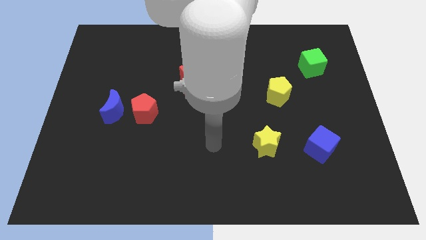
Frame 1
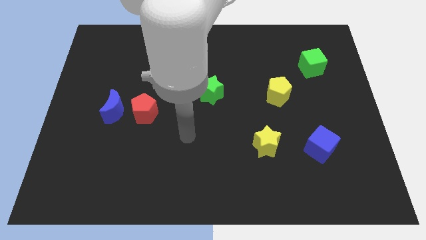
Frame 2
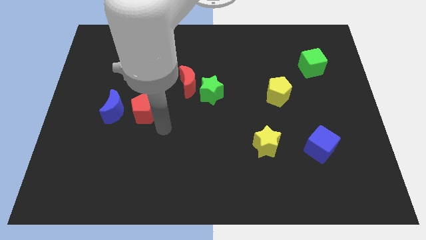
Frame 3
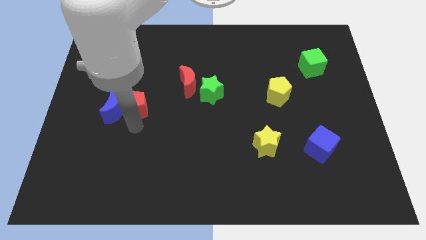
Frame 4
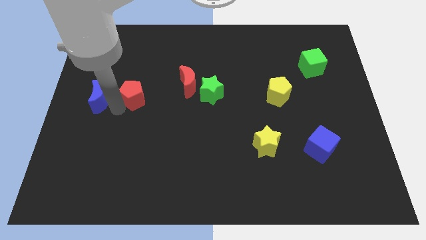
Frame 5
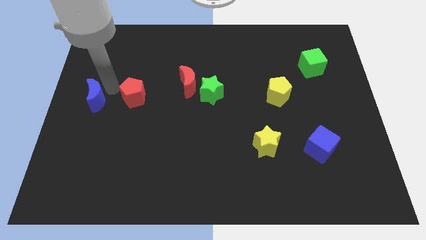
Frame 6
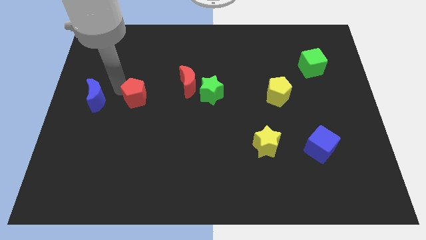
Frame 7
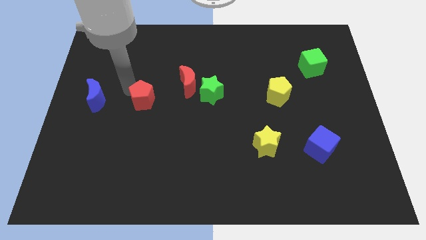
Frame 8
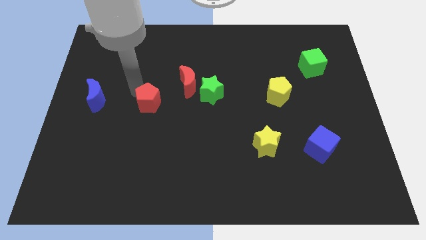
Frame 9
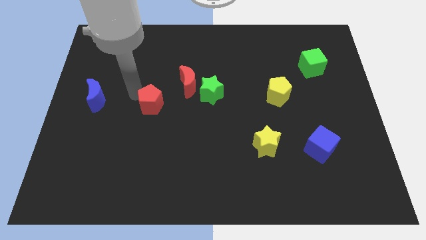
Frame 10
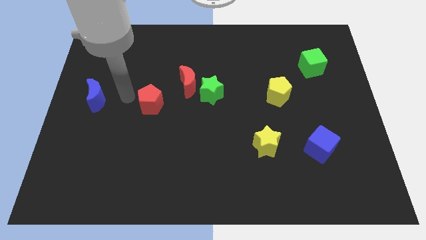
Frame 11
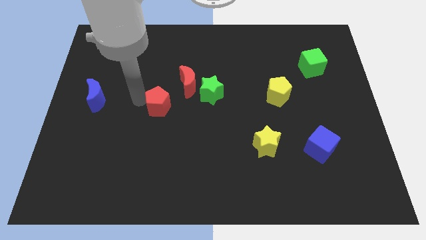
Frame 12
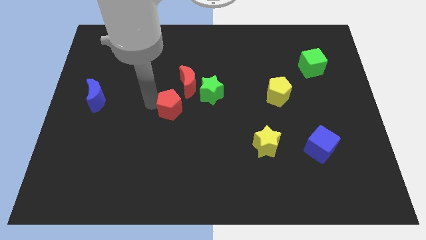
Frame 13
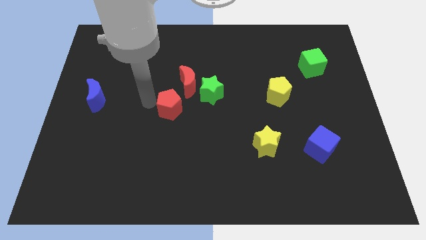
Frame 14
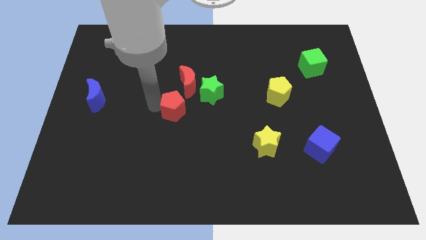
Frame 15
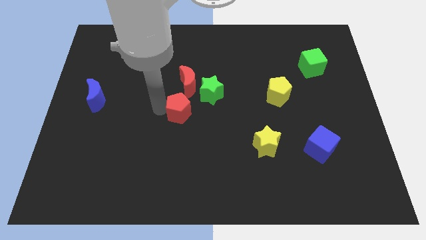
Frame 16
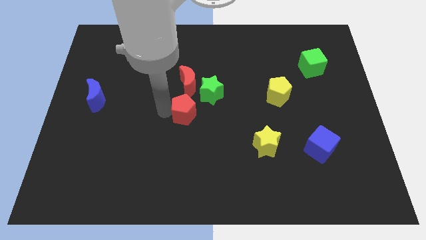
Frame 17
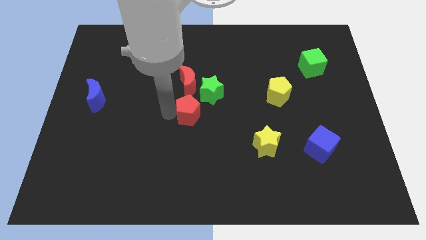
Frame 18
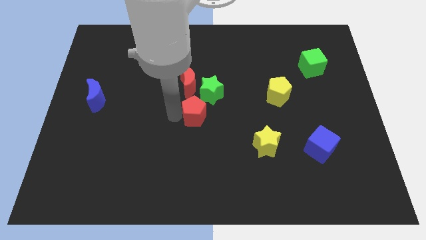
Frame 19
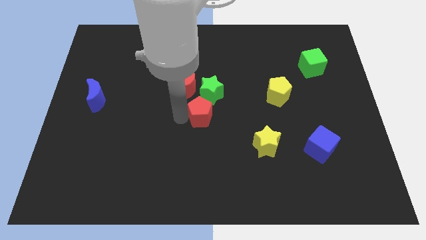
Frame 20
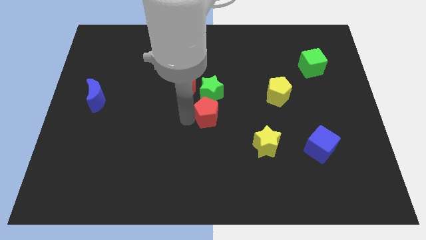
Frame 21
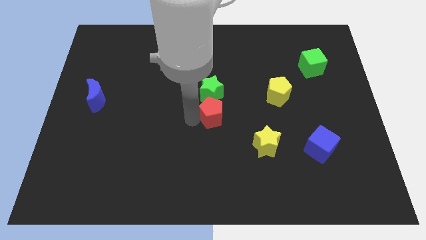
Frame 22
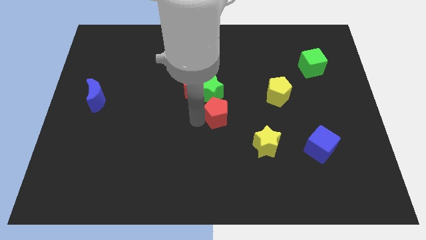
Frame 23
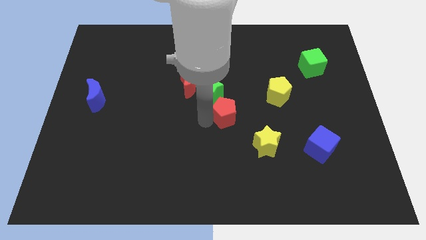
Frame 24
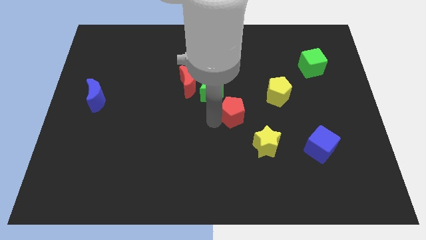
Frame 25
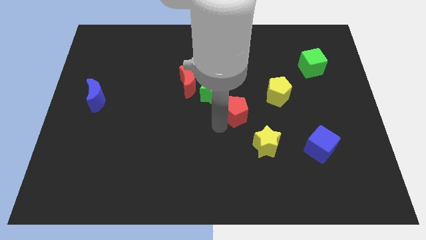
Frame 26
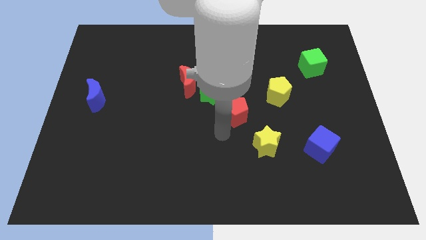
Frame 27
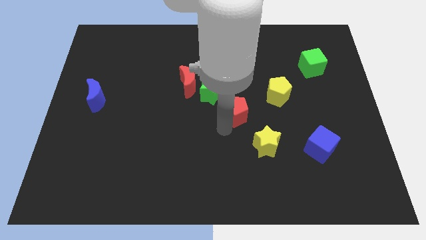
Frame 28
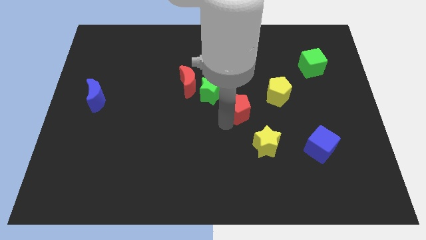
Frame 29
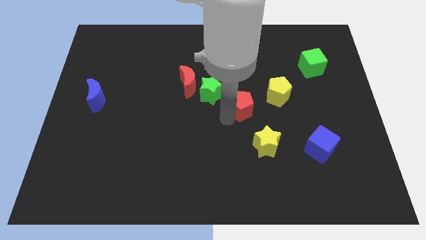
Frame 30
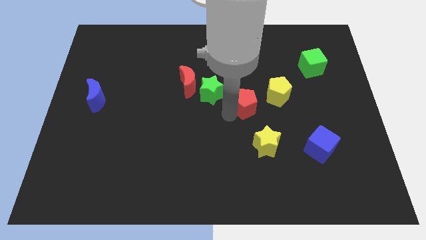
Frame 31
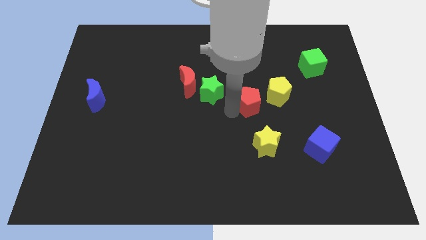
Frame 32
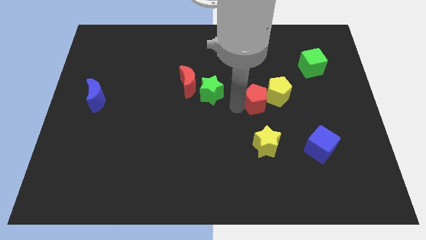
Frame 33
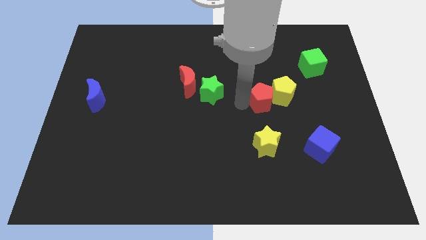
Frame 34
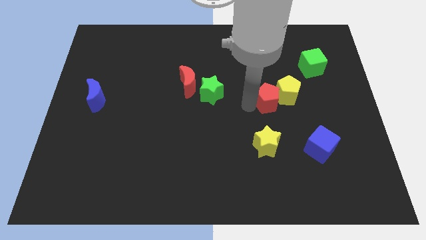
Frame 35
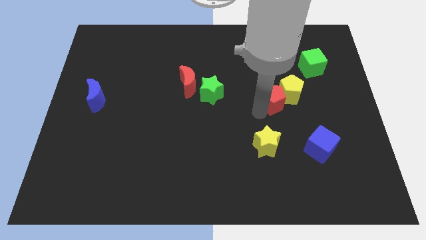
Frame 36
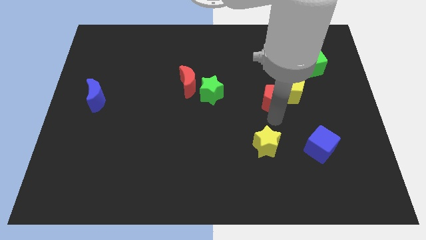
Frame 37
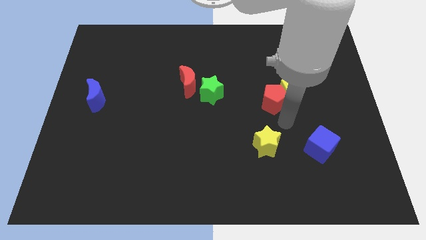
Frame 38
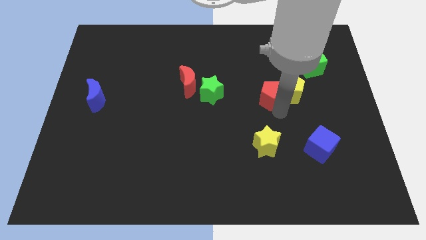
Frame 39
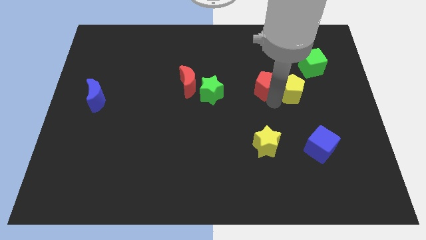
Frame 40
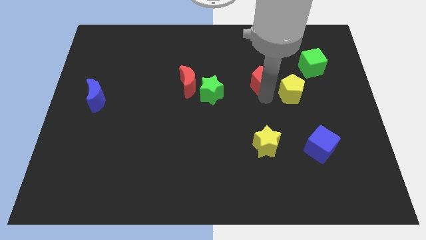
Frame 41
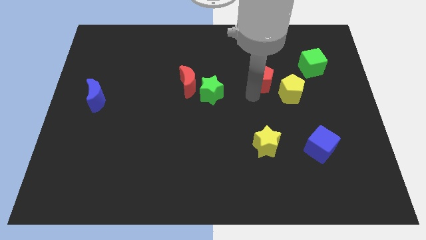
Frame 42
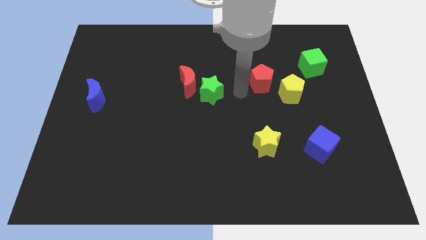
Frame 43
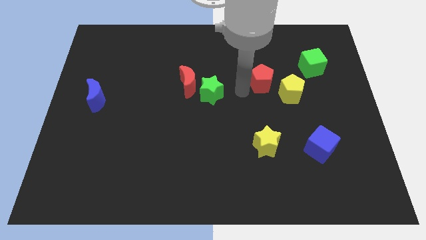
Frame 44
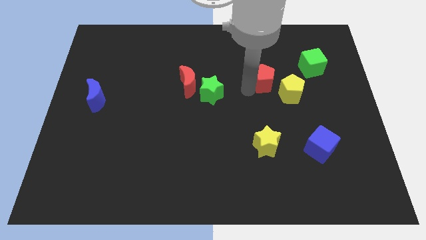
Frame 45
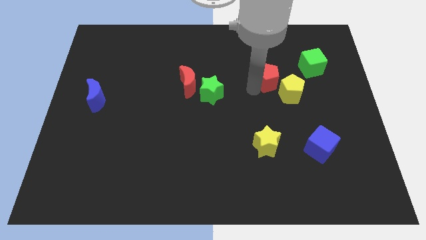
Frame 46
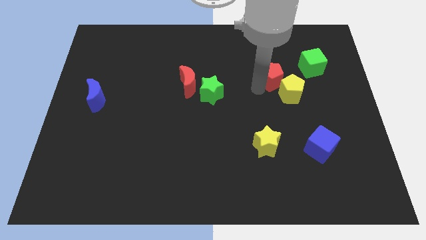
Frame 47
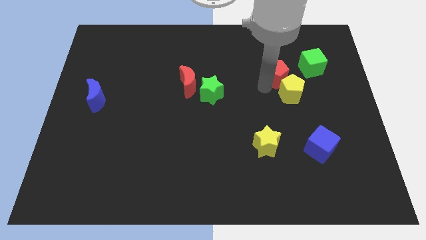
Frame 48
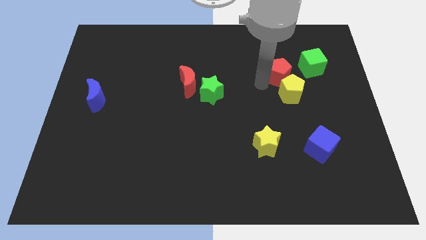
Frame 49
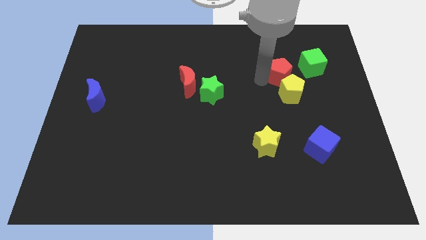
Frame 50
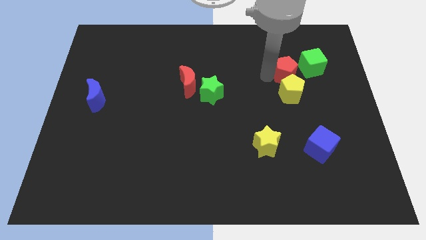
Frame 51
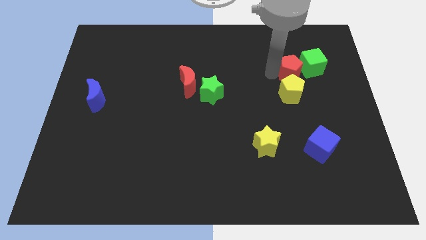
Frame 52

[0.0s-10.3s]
slide the red pentagon close to the green cube

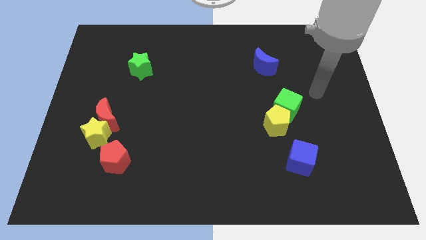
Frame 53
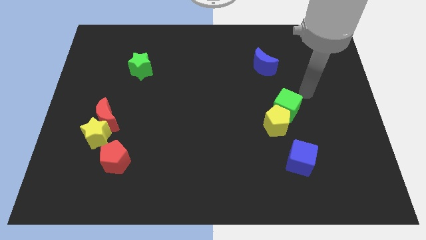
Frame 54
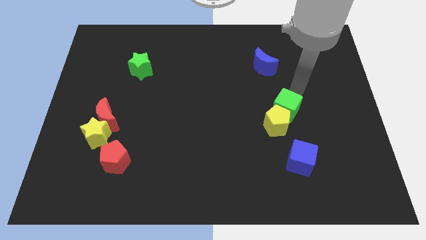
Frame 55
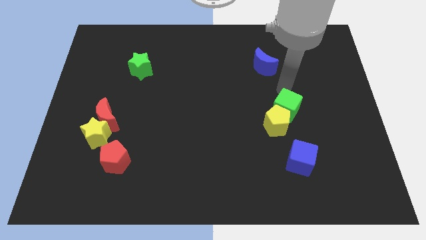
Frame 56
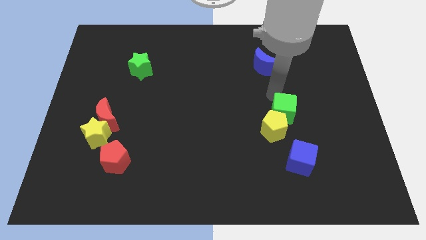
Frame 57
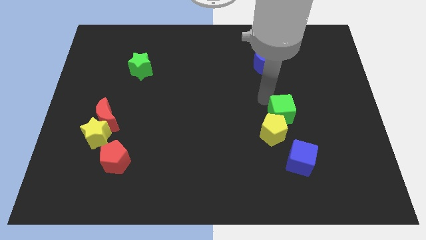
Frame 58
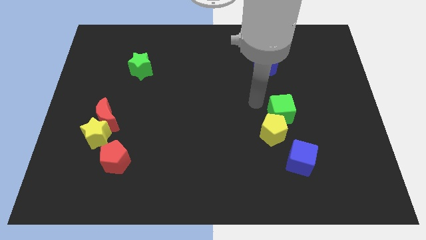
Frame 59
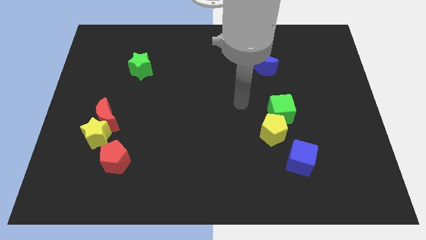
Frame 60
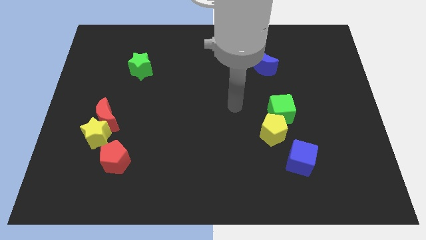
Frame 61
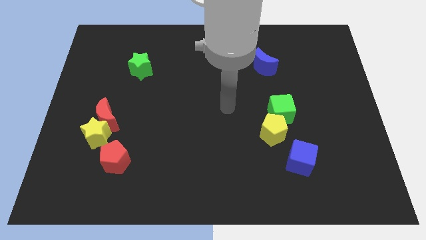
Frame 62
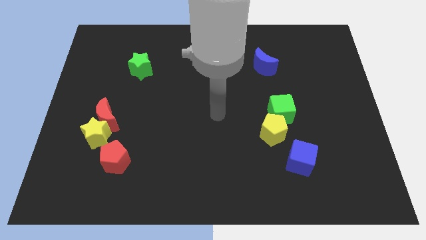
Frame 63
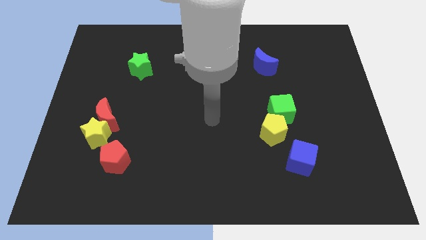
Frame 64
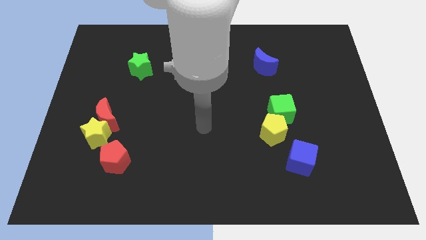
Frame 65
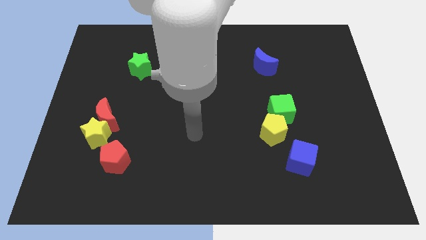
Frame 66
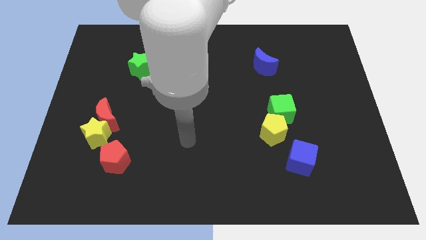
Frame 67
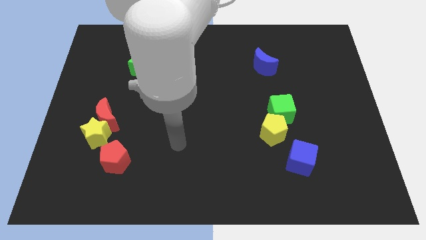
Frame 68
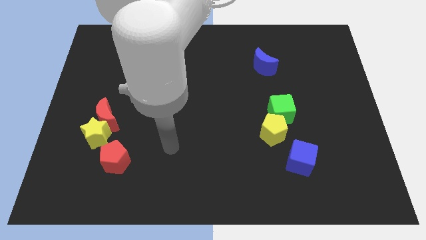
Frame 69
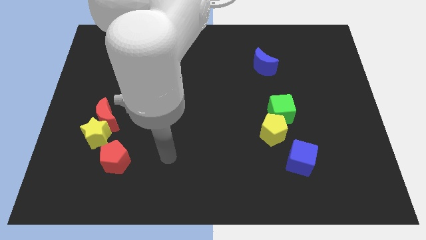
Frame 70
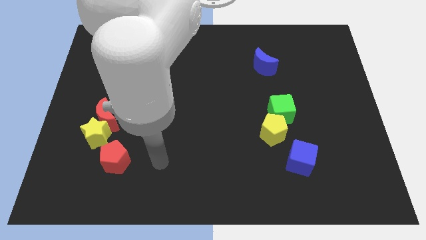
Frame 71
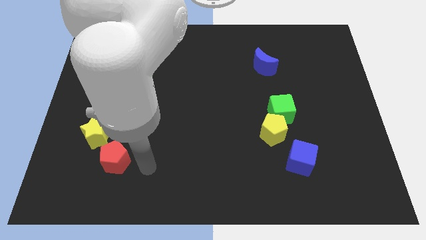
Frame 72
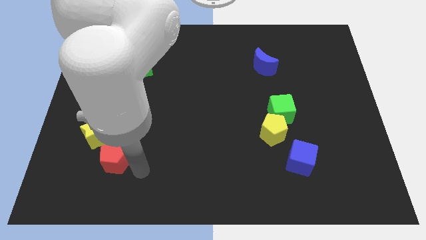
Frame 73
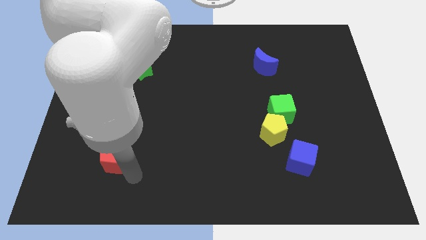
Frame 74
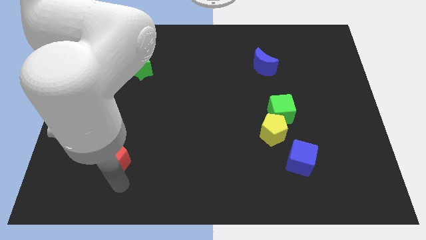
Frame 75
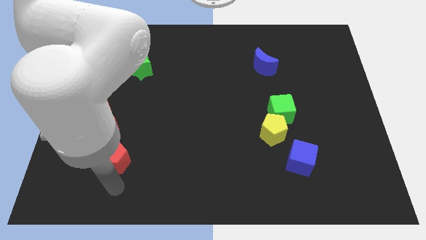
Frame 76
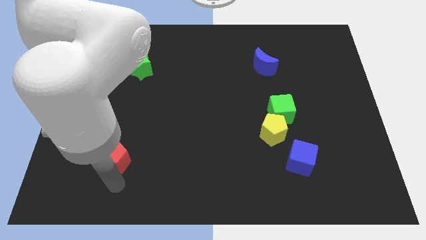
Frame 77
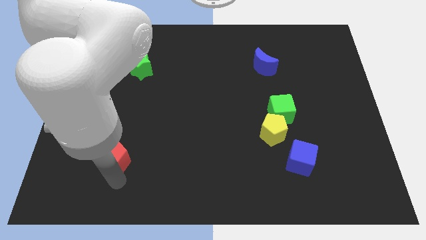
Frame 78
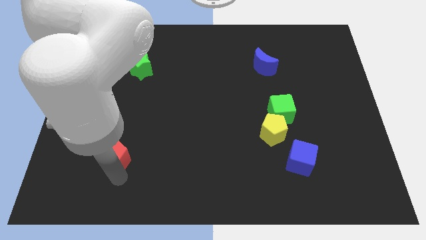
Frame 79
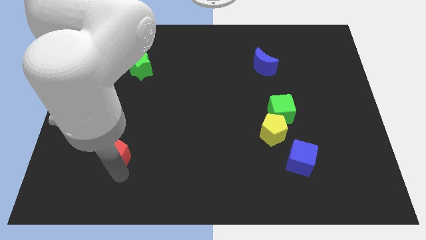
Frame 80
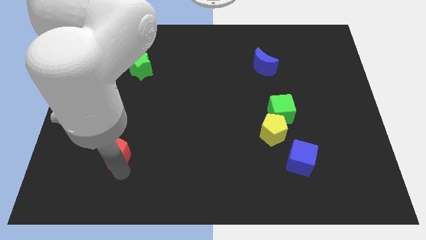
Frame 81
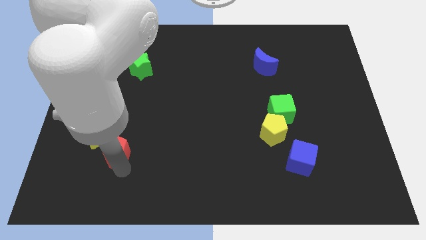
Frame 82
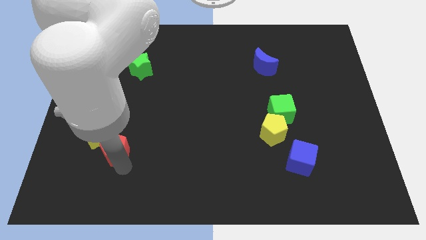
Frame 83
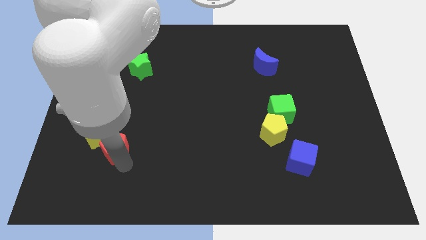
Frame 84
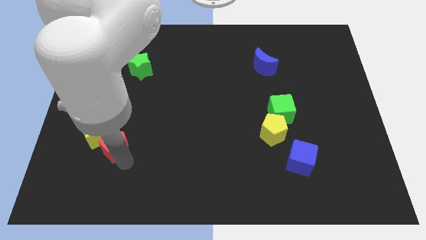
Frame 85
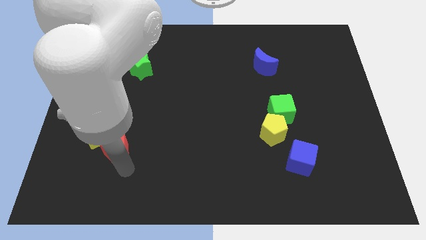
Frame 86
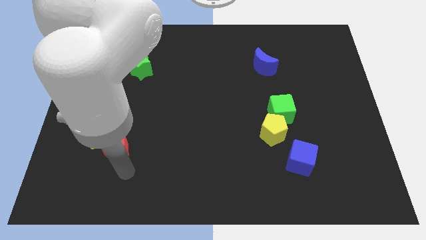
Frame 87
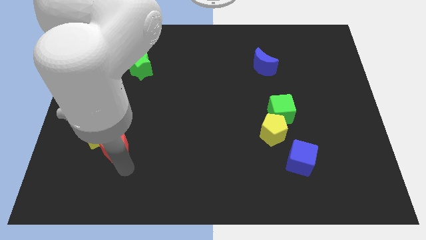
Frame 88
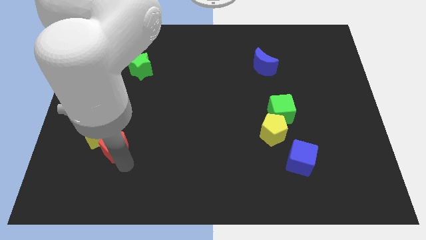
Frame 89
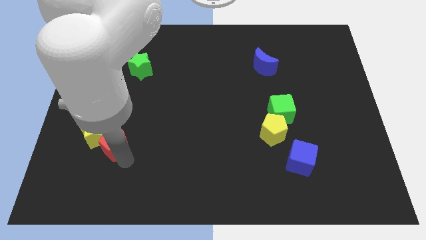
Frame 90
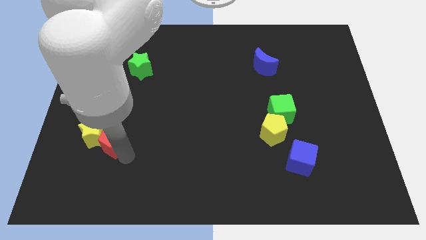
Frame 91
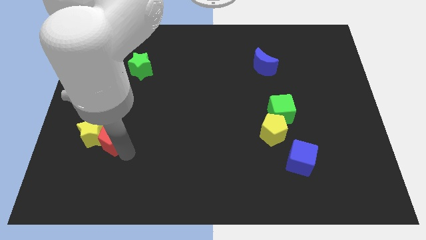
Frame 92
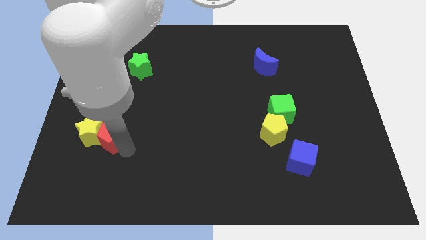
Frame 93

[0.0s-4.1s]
move the red pentagon to the red moon
